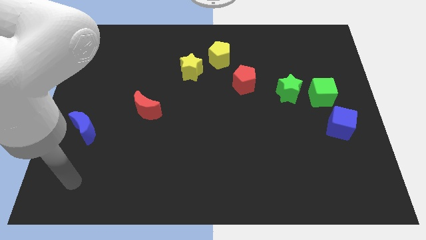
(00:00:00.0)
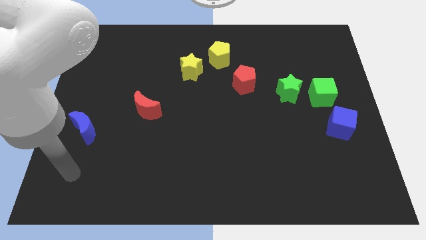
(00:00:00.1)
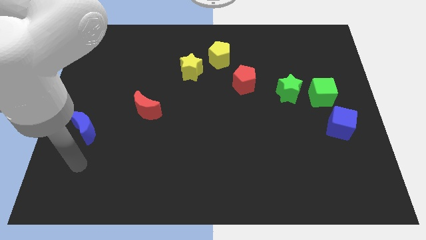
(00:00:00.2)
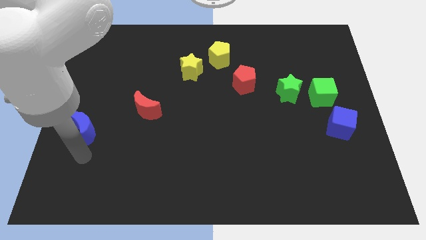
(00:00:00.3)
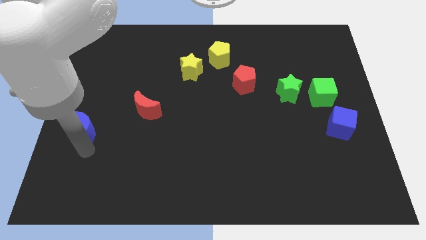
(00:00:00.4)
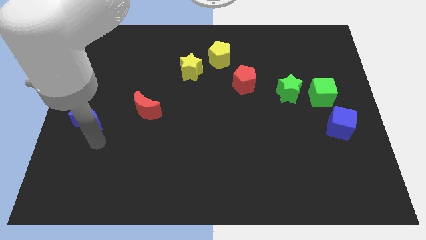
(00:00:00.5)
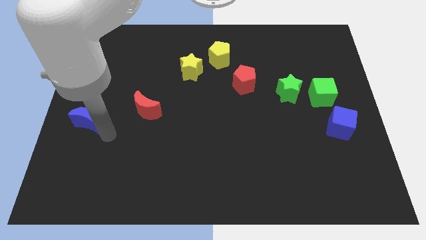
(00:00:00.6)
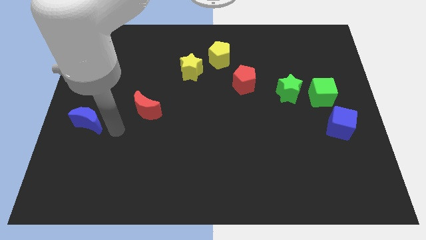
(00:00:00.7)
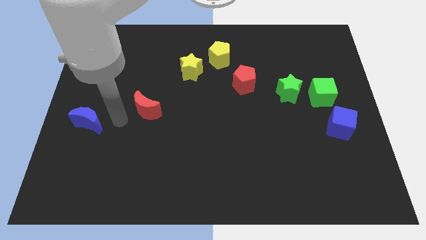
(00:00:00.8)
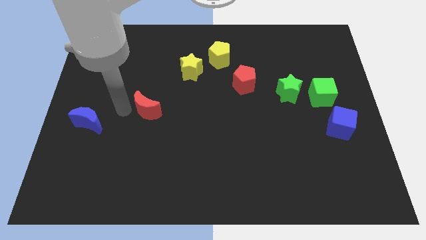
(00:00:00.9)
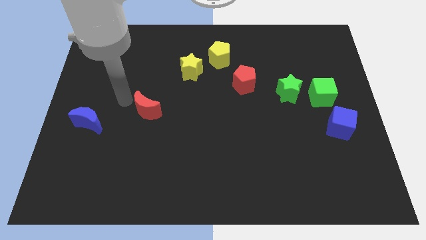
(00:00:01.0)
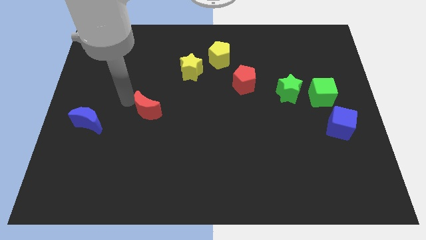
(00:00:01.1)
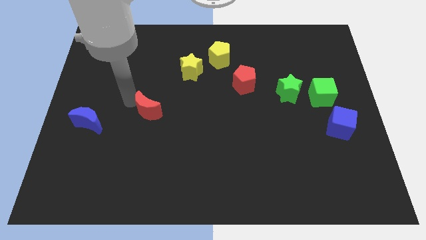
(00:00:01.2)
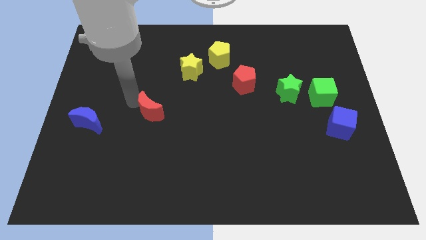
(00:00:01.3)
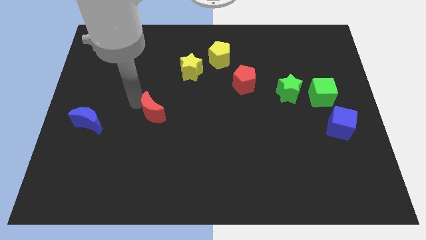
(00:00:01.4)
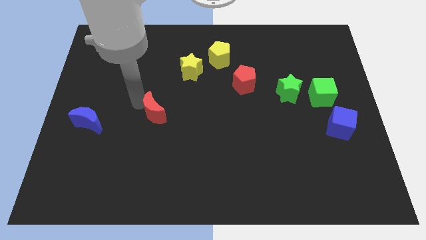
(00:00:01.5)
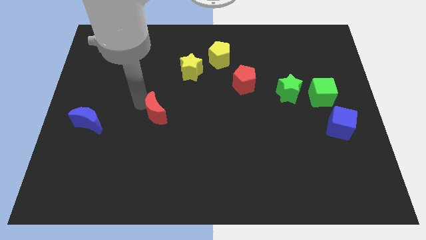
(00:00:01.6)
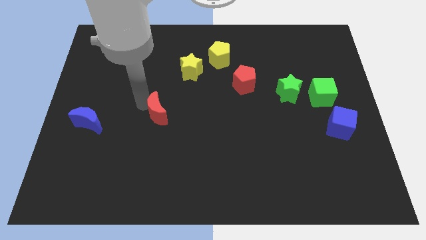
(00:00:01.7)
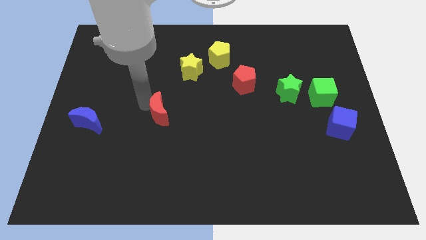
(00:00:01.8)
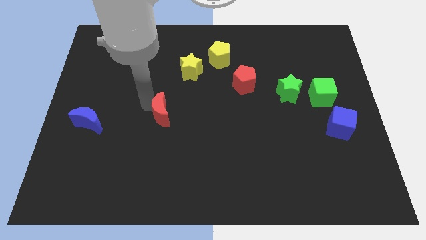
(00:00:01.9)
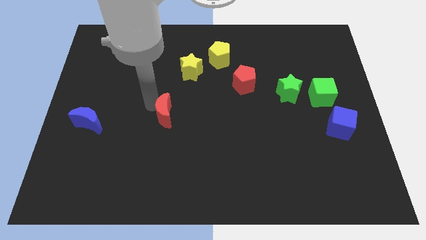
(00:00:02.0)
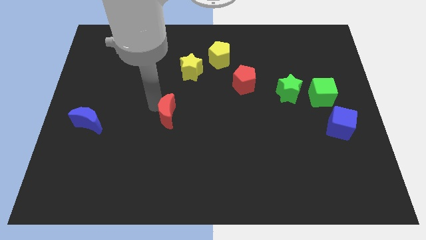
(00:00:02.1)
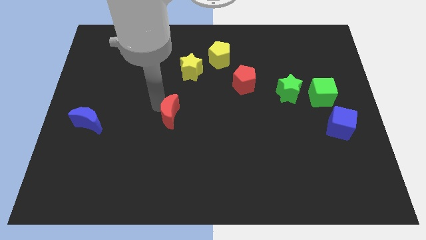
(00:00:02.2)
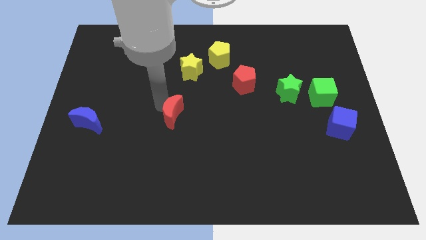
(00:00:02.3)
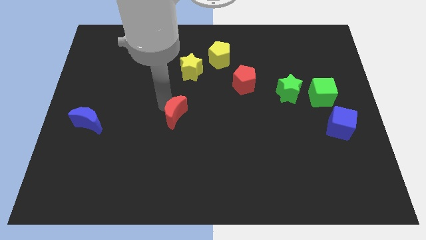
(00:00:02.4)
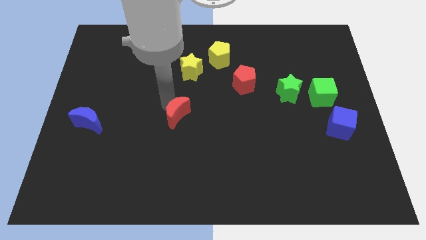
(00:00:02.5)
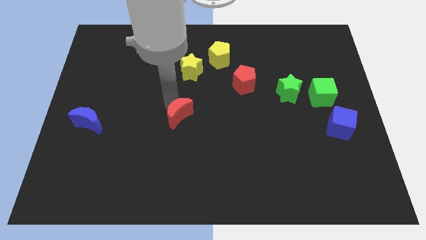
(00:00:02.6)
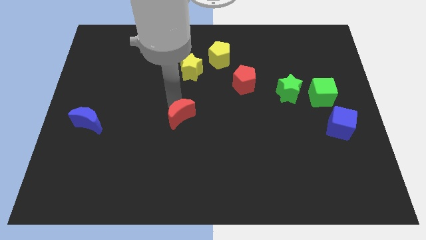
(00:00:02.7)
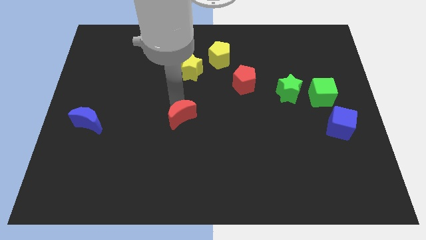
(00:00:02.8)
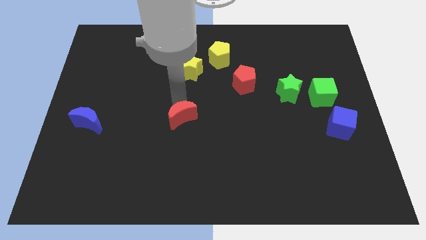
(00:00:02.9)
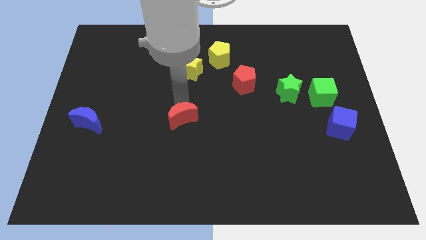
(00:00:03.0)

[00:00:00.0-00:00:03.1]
move the red moon a bit downwards and then to the right

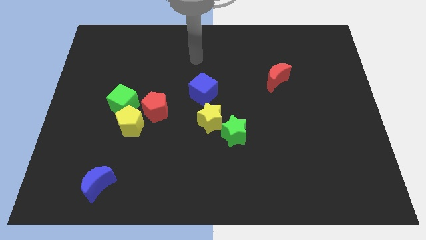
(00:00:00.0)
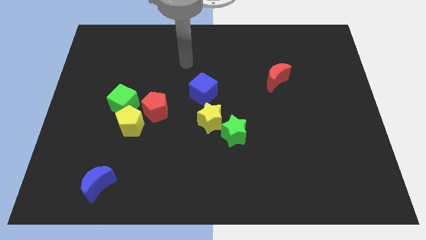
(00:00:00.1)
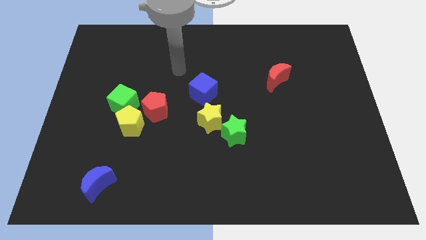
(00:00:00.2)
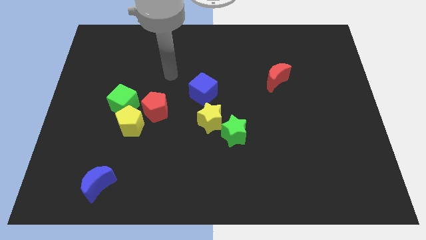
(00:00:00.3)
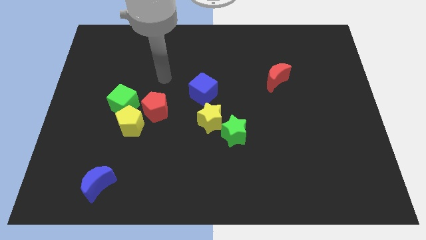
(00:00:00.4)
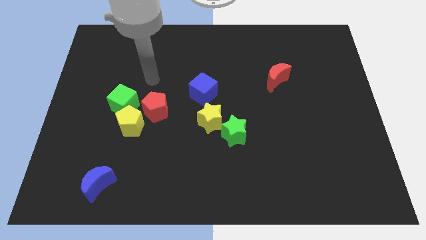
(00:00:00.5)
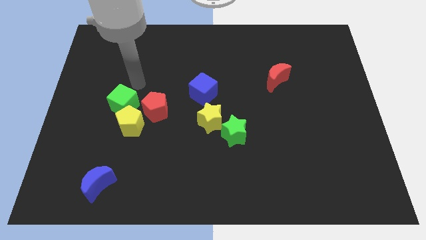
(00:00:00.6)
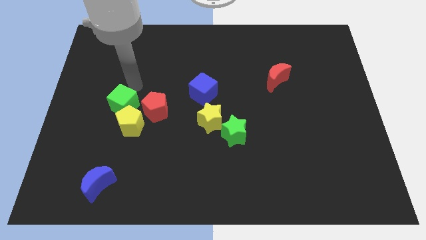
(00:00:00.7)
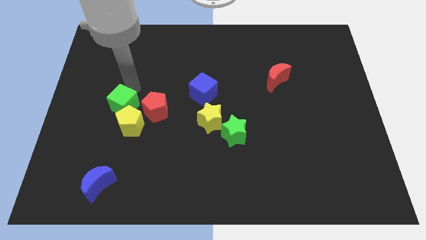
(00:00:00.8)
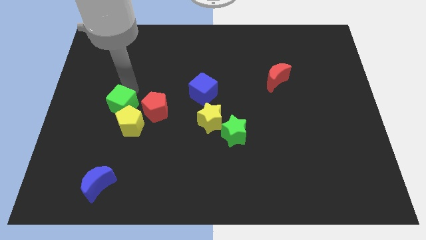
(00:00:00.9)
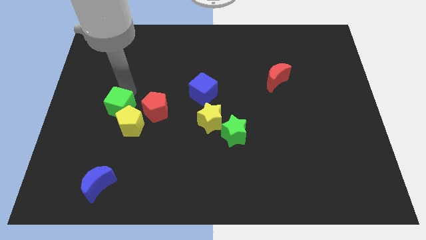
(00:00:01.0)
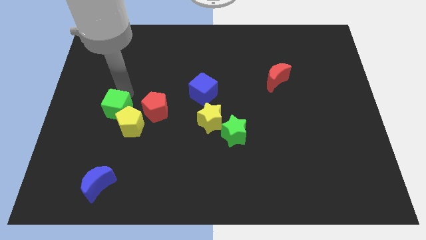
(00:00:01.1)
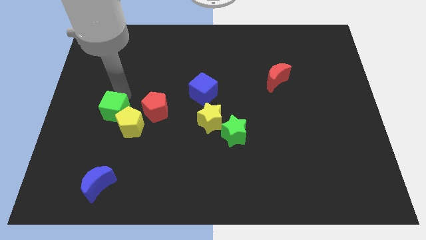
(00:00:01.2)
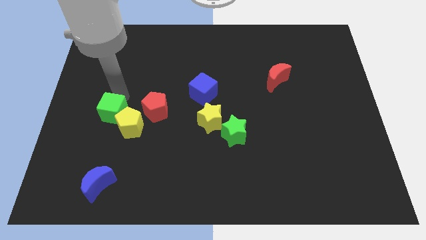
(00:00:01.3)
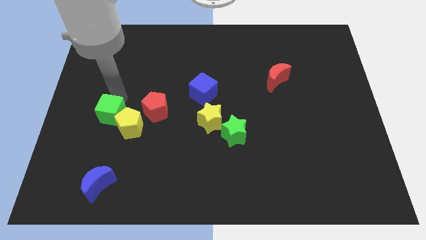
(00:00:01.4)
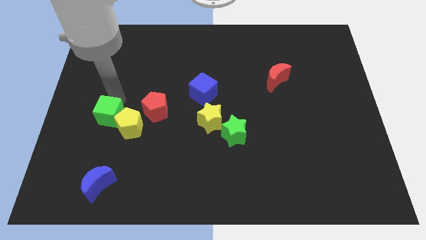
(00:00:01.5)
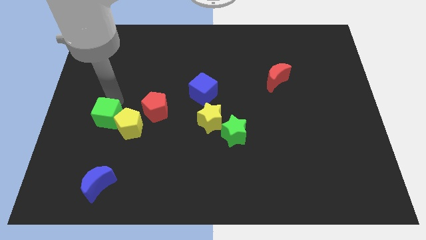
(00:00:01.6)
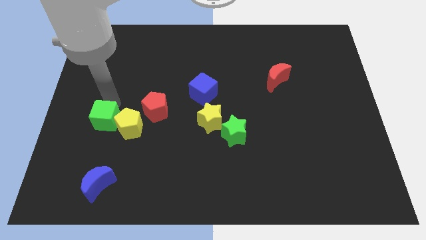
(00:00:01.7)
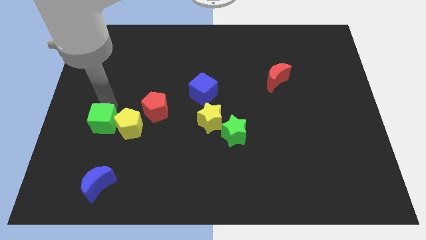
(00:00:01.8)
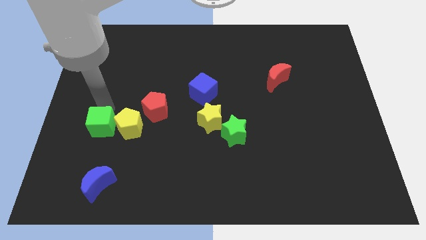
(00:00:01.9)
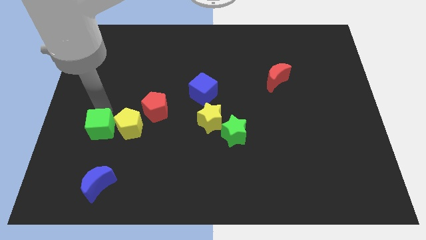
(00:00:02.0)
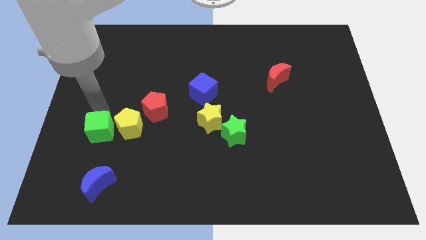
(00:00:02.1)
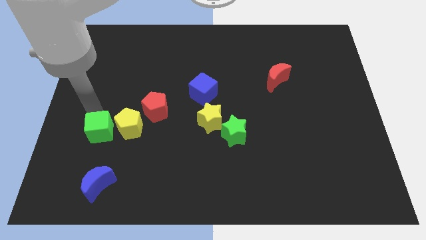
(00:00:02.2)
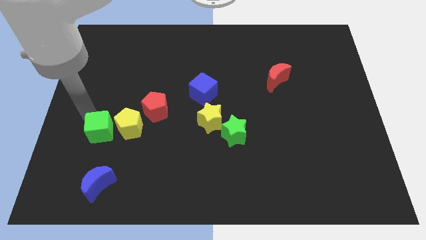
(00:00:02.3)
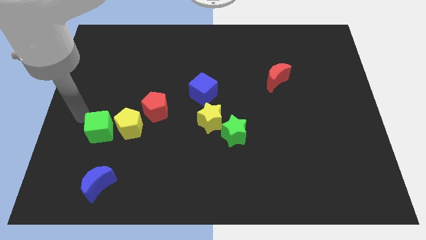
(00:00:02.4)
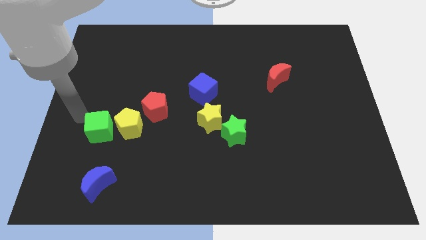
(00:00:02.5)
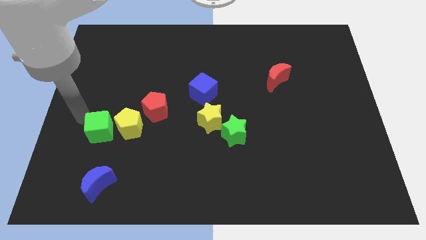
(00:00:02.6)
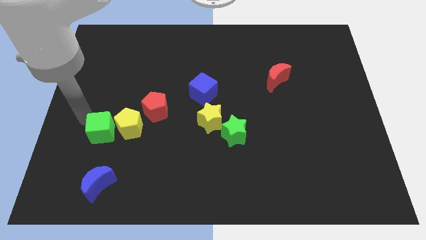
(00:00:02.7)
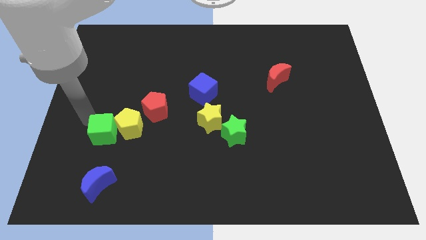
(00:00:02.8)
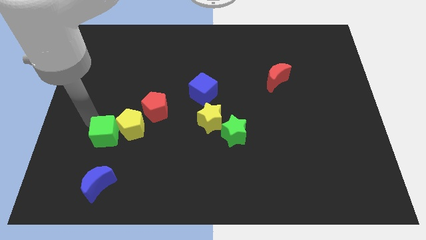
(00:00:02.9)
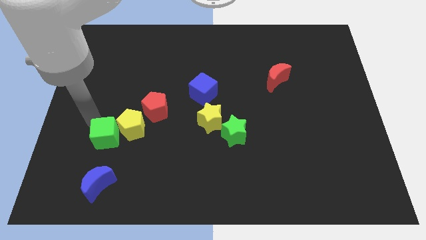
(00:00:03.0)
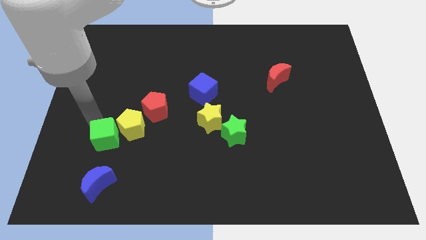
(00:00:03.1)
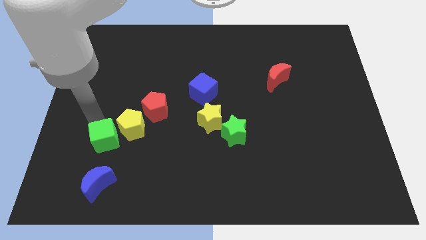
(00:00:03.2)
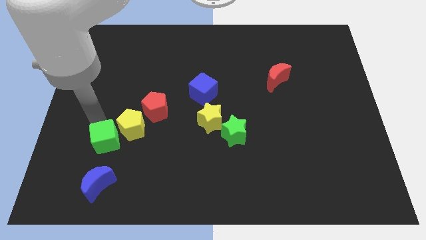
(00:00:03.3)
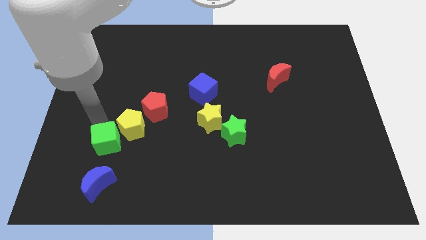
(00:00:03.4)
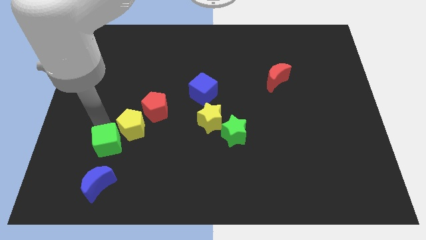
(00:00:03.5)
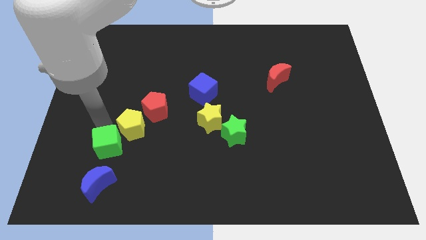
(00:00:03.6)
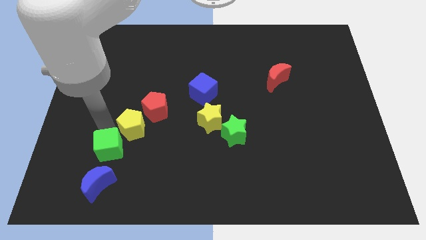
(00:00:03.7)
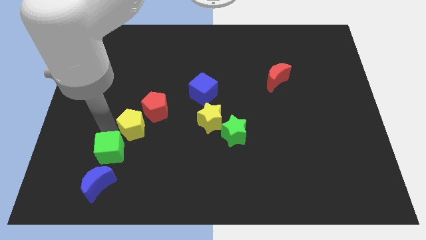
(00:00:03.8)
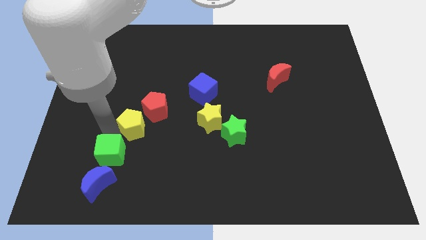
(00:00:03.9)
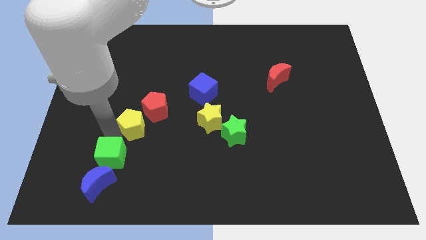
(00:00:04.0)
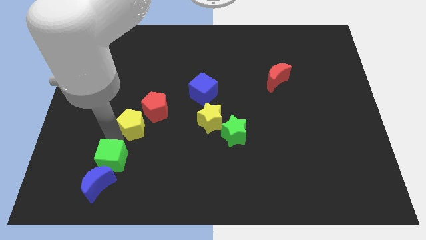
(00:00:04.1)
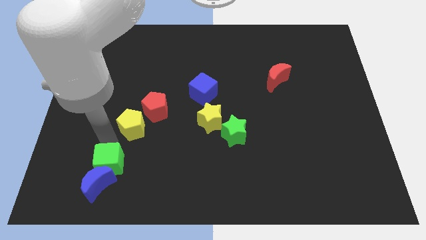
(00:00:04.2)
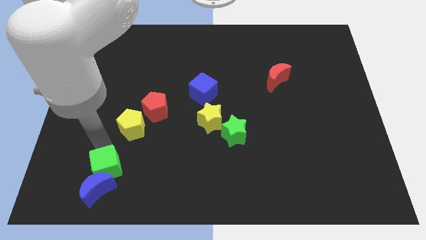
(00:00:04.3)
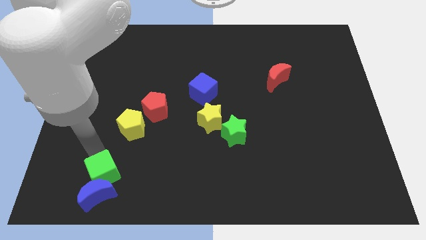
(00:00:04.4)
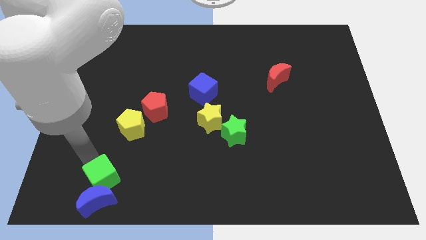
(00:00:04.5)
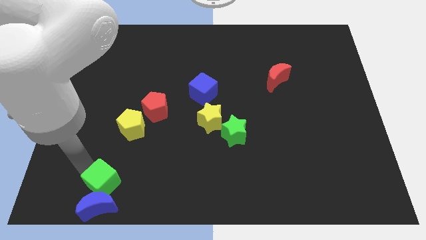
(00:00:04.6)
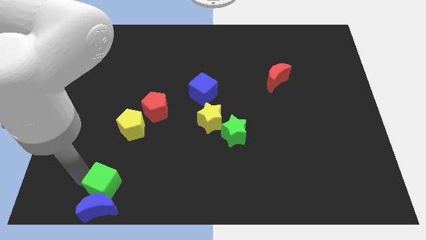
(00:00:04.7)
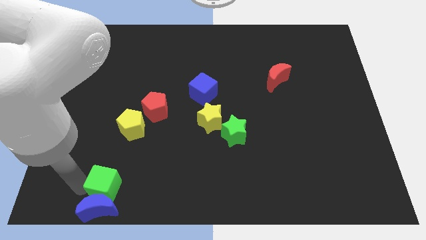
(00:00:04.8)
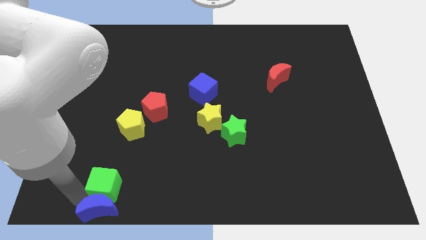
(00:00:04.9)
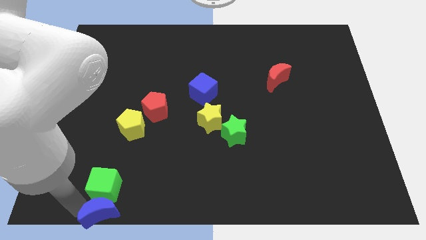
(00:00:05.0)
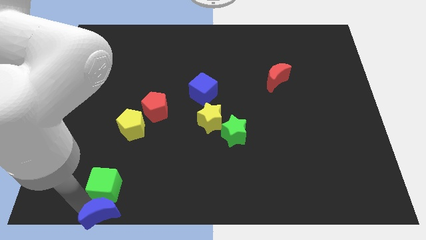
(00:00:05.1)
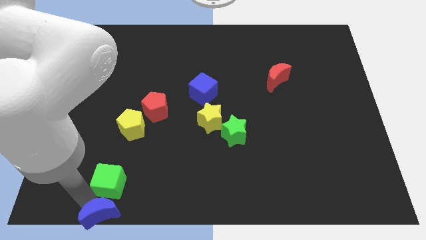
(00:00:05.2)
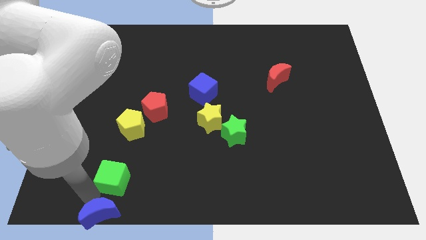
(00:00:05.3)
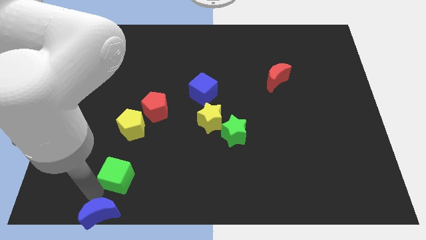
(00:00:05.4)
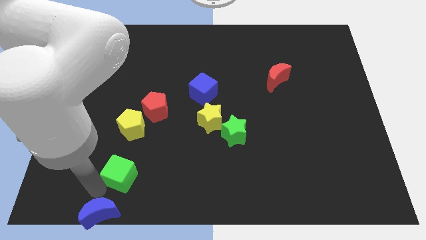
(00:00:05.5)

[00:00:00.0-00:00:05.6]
slightly push the green cube downwards and then to the right
